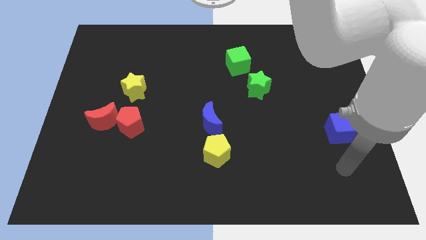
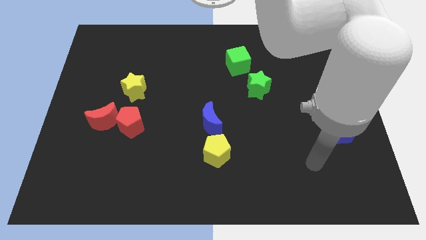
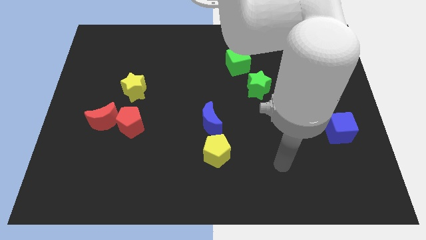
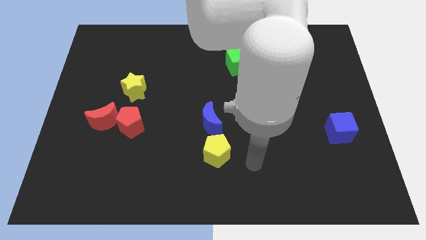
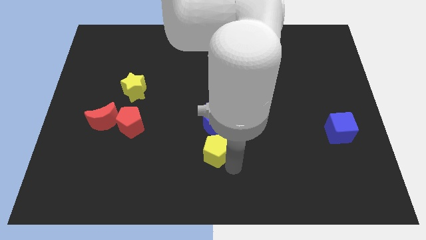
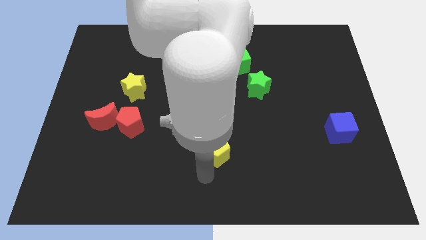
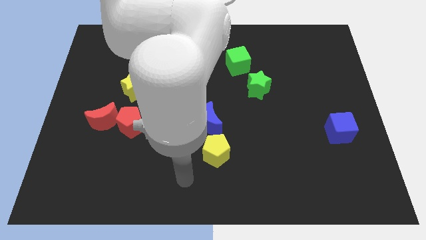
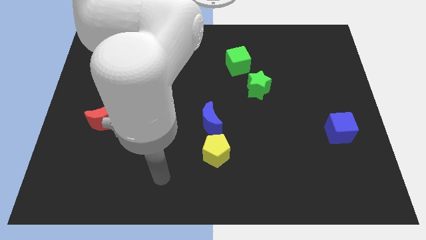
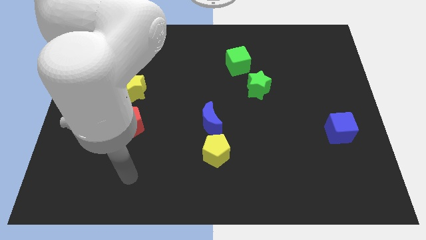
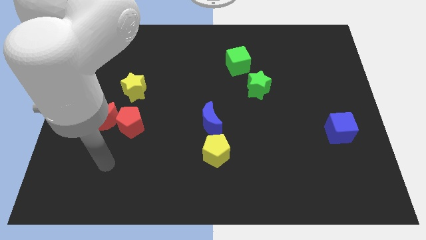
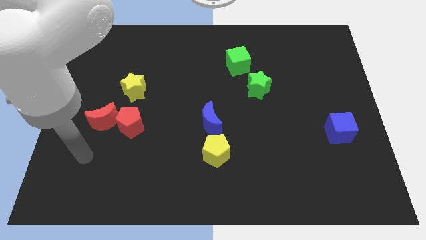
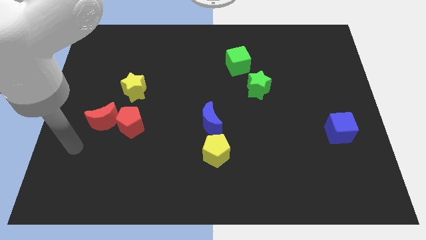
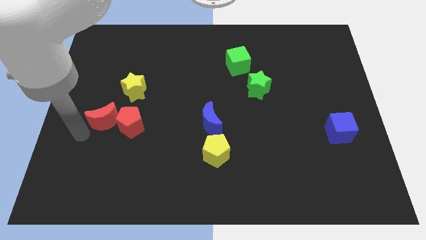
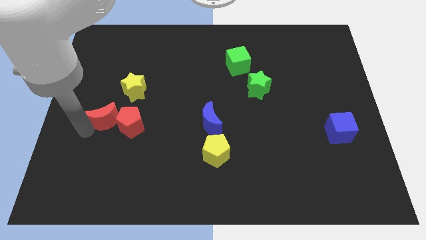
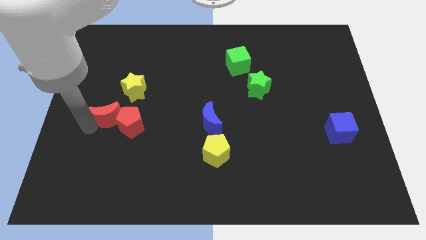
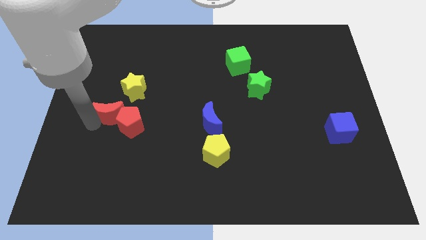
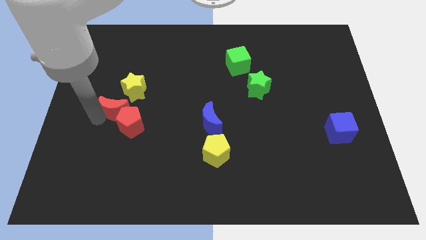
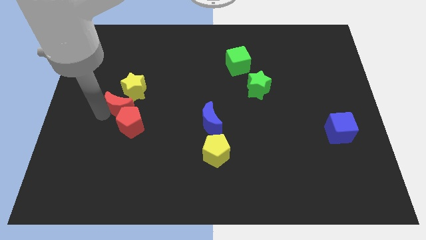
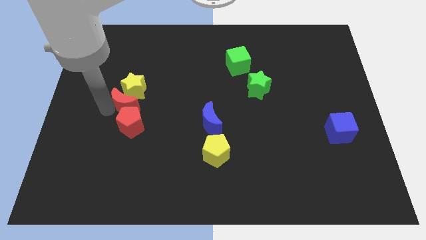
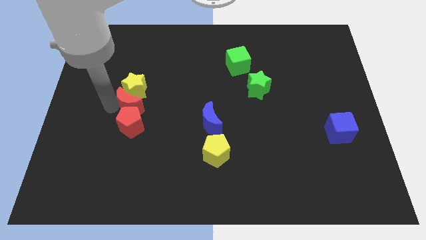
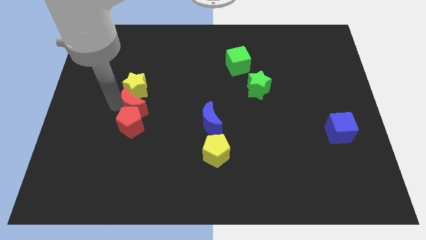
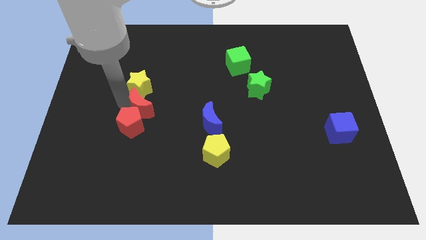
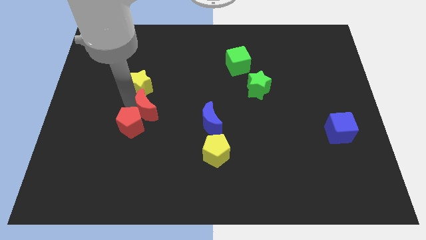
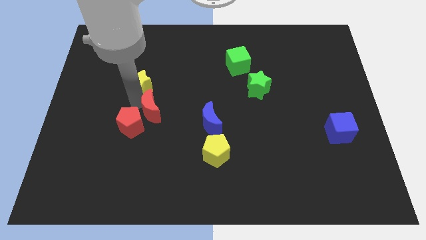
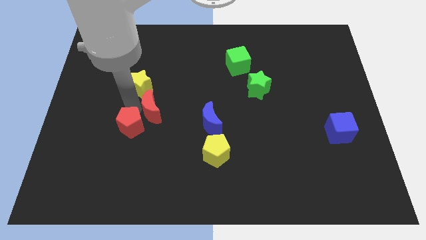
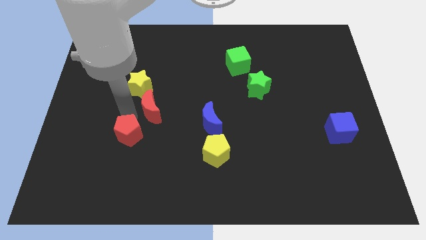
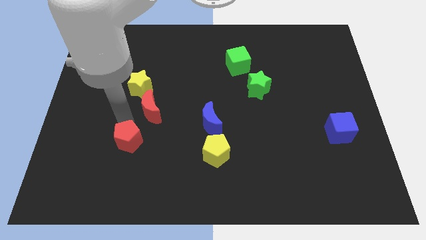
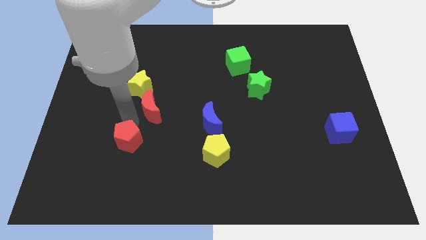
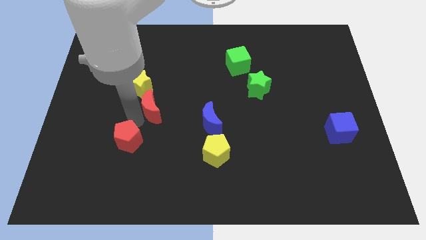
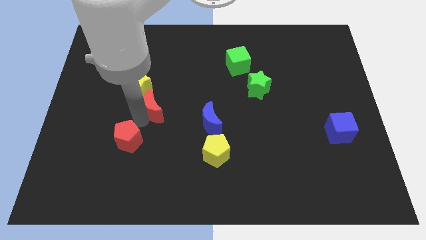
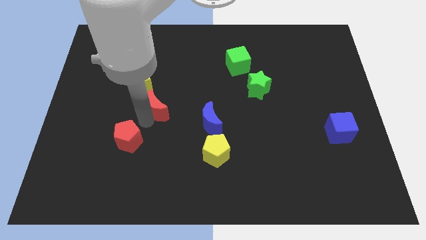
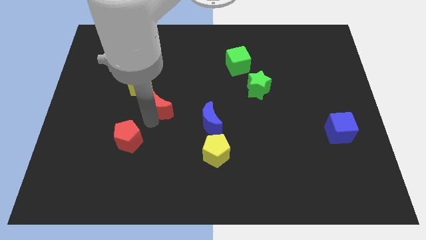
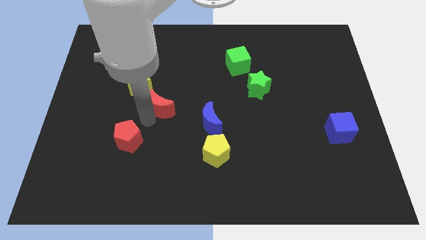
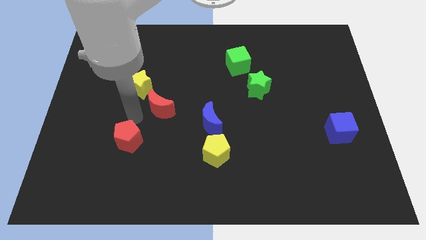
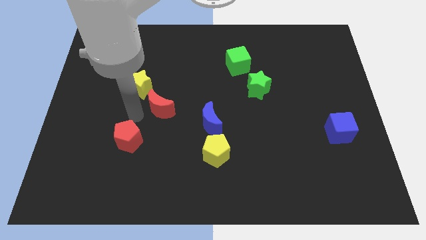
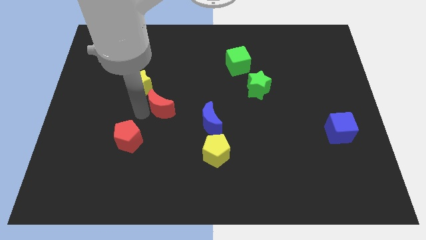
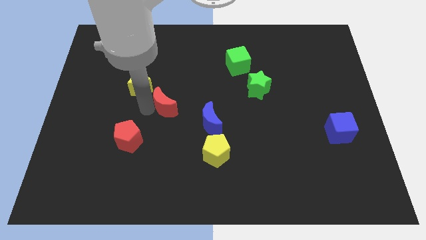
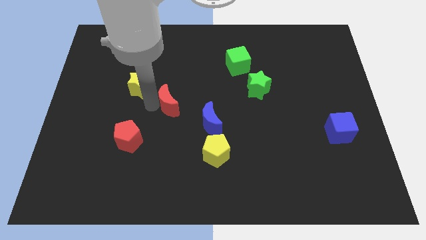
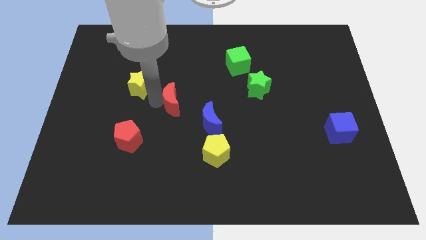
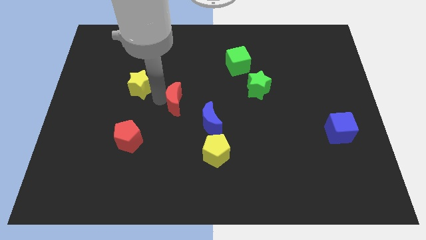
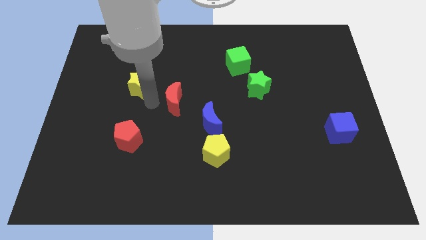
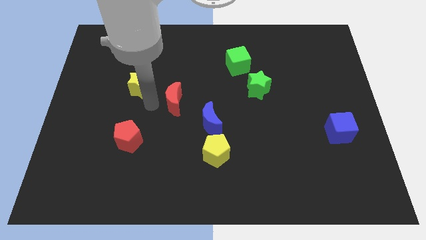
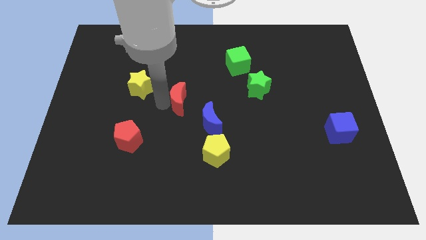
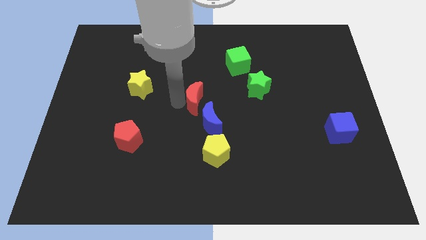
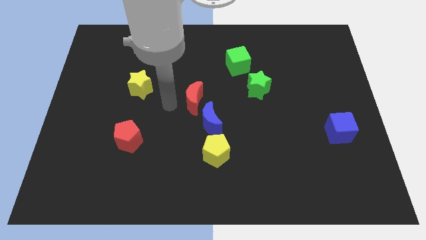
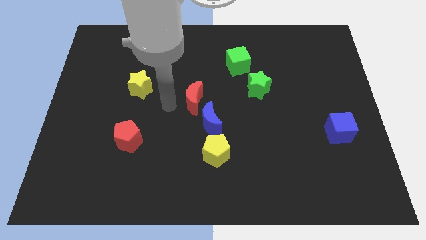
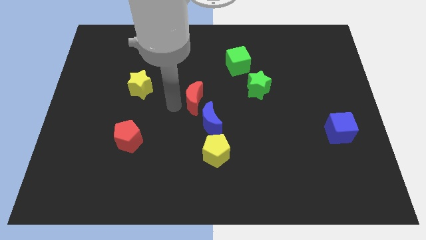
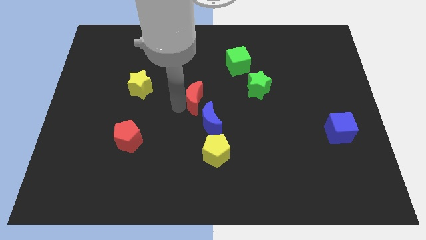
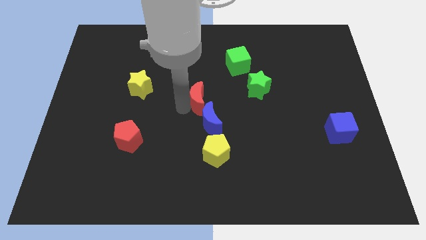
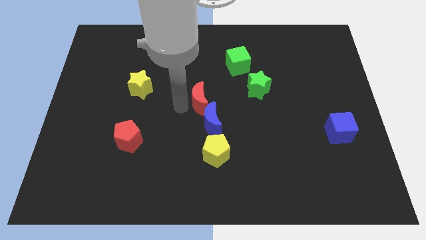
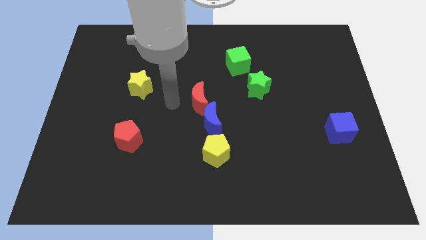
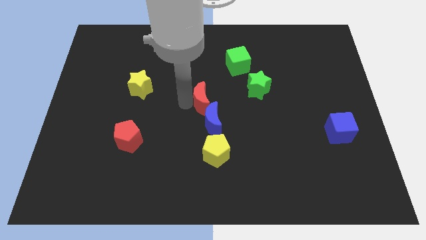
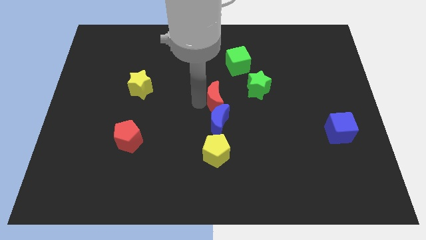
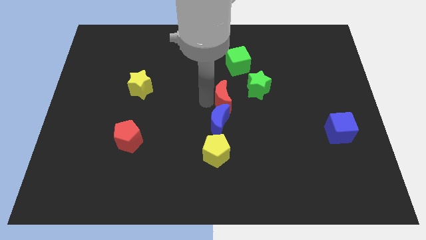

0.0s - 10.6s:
slide the red moon to the bottom left side of the green star
